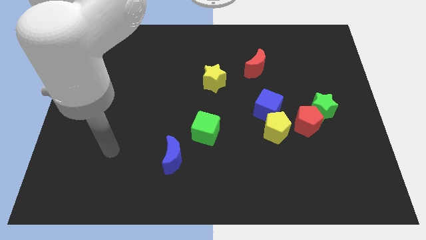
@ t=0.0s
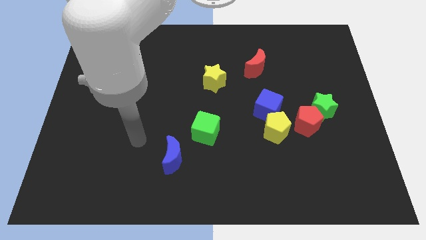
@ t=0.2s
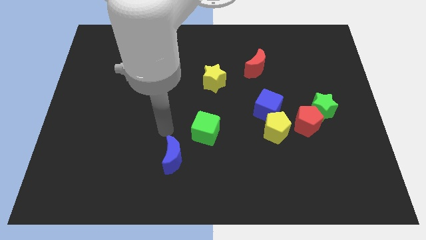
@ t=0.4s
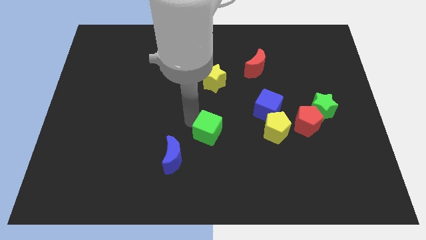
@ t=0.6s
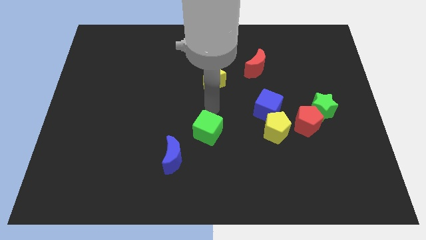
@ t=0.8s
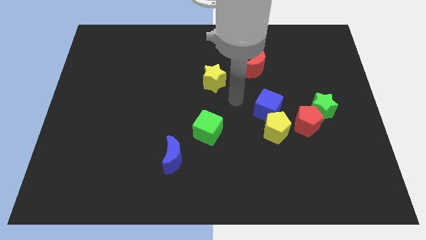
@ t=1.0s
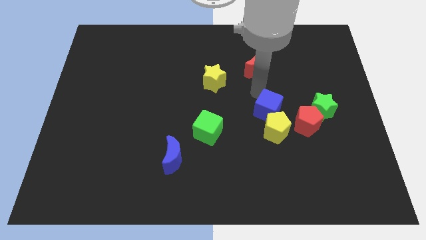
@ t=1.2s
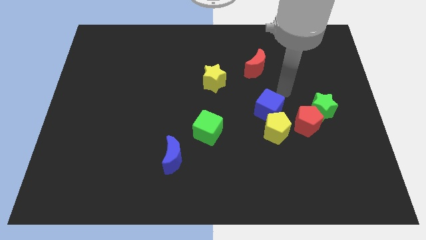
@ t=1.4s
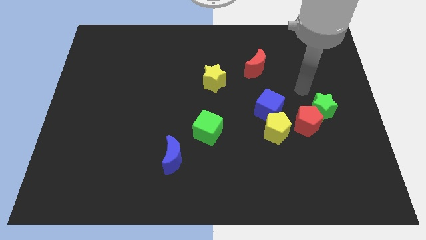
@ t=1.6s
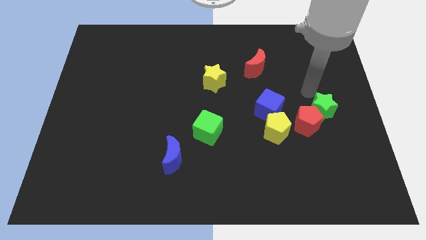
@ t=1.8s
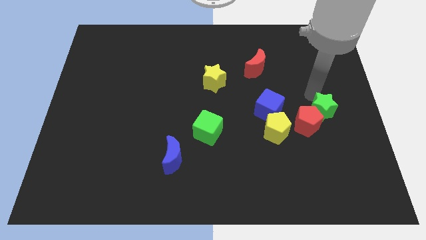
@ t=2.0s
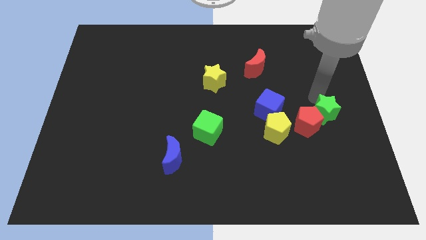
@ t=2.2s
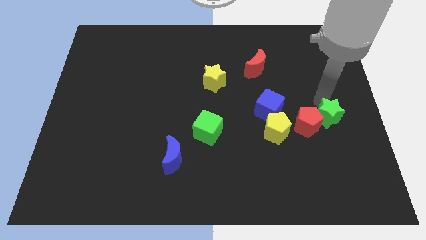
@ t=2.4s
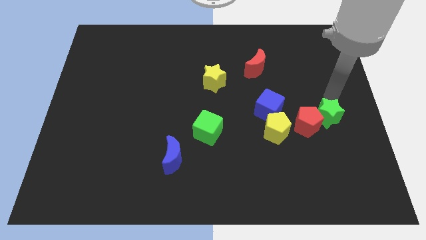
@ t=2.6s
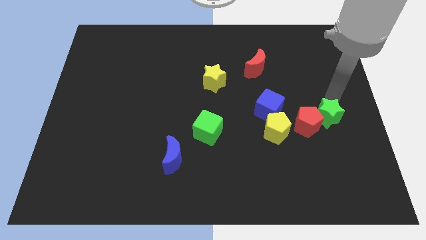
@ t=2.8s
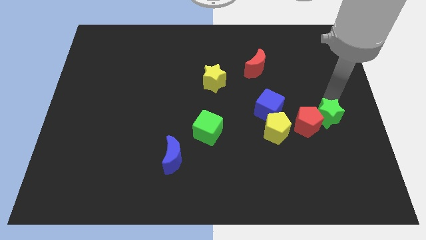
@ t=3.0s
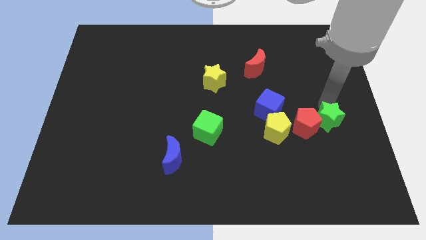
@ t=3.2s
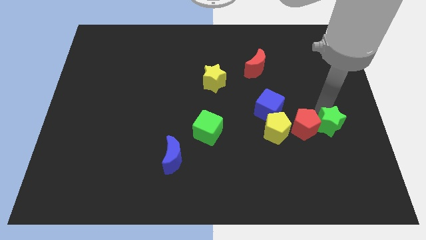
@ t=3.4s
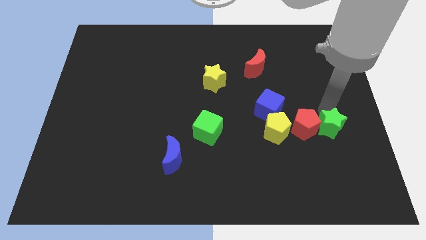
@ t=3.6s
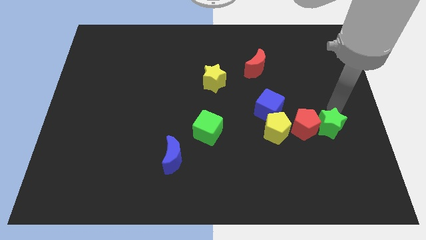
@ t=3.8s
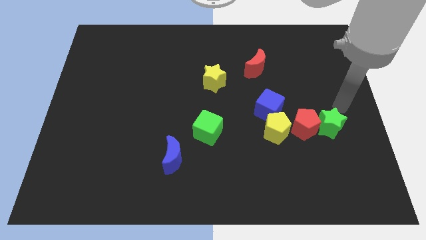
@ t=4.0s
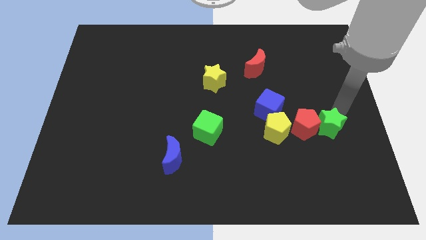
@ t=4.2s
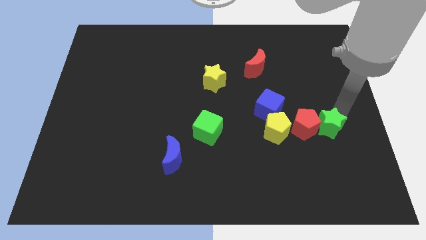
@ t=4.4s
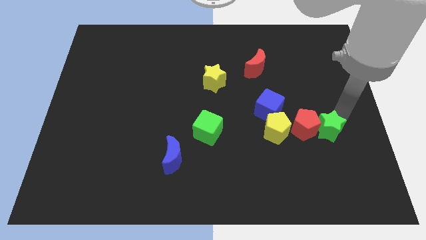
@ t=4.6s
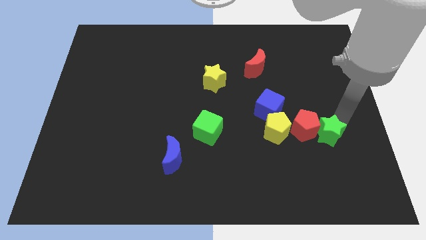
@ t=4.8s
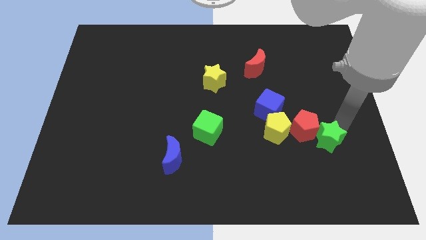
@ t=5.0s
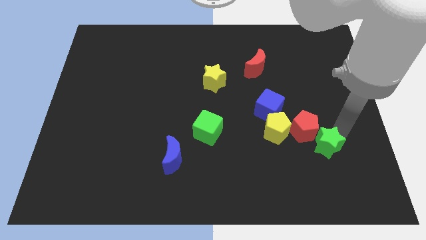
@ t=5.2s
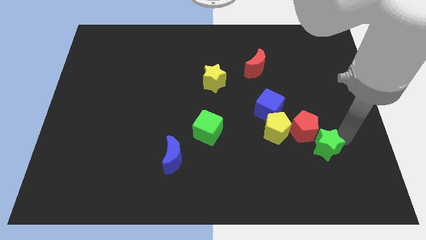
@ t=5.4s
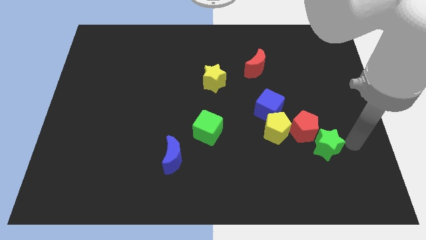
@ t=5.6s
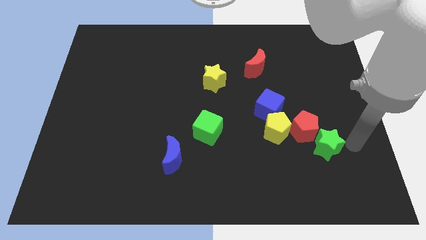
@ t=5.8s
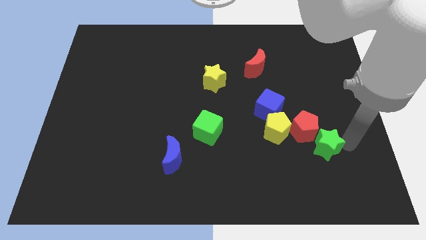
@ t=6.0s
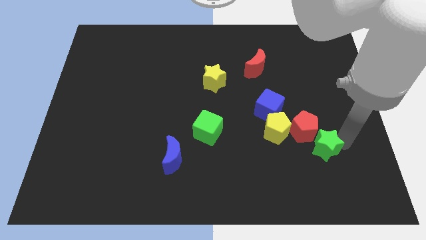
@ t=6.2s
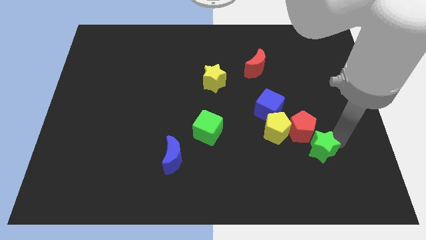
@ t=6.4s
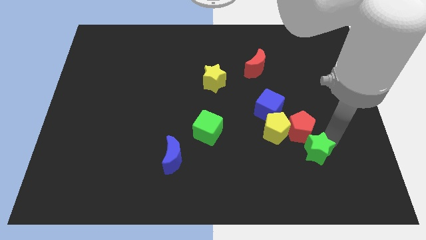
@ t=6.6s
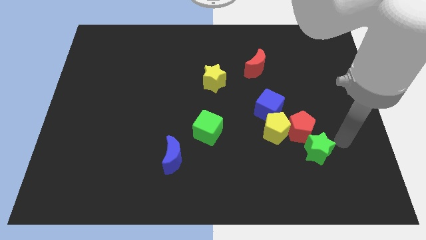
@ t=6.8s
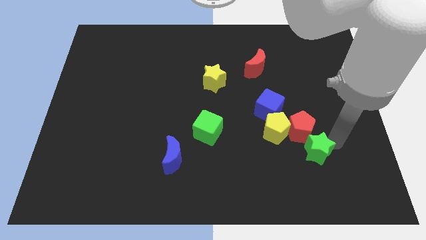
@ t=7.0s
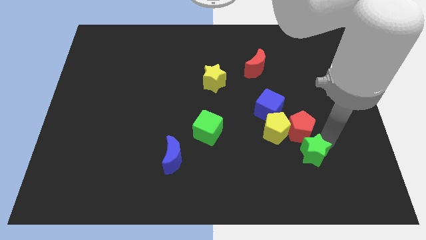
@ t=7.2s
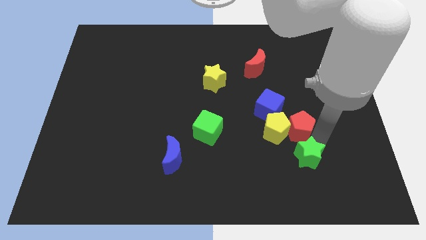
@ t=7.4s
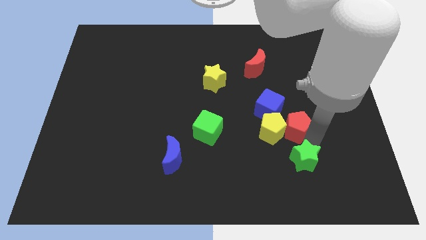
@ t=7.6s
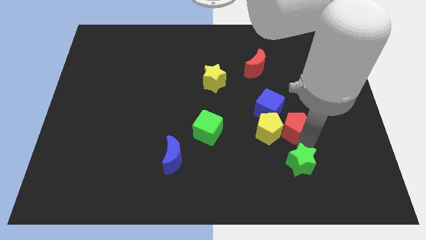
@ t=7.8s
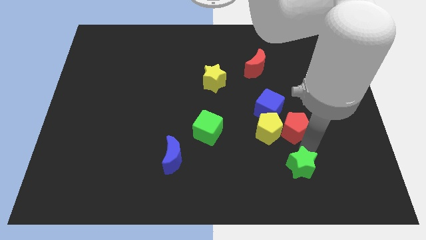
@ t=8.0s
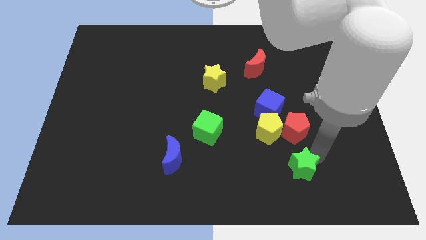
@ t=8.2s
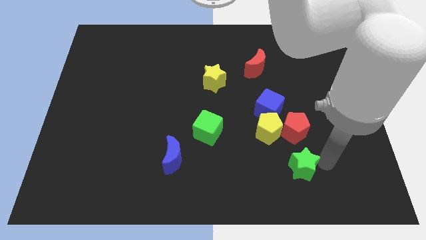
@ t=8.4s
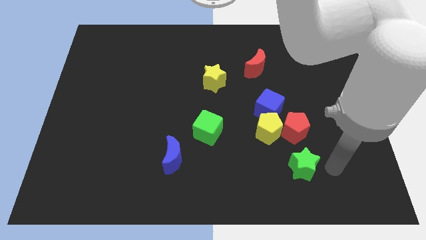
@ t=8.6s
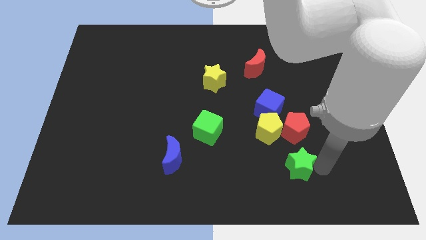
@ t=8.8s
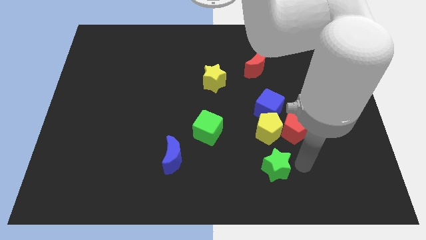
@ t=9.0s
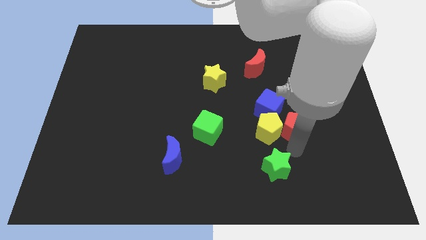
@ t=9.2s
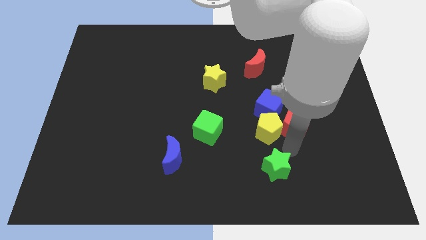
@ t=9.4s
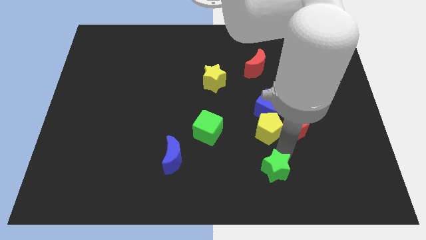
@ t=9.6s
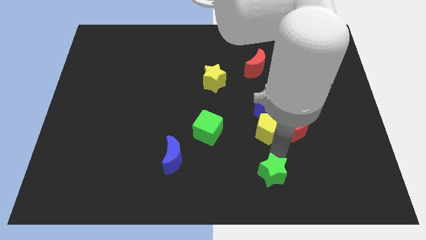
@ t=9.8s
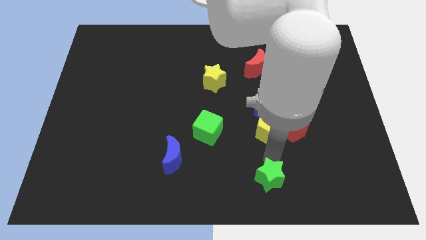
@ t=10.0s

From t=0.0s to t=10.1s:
move the green star to the bottom

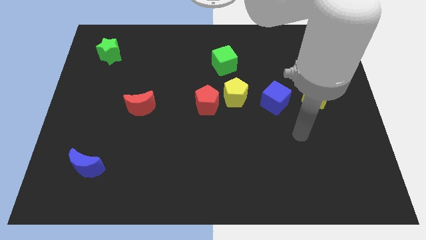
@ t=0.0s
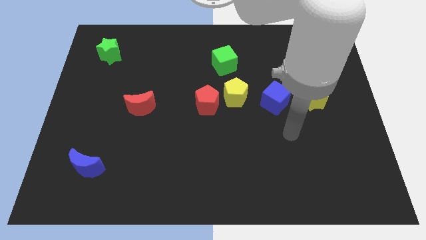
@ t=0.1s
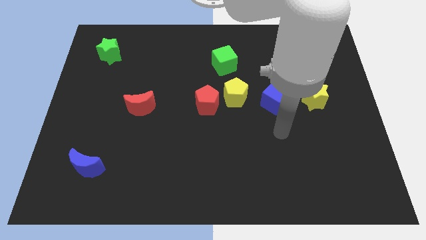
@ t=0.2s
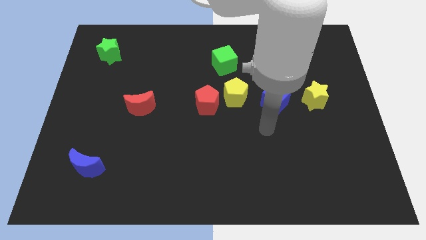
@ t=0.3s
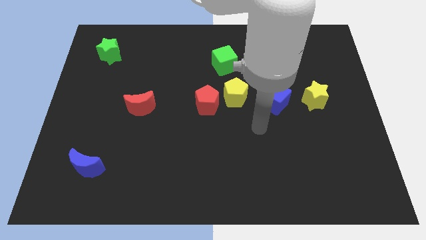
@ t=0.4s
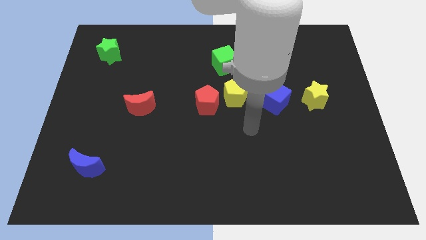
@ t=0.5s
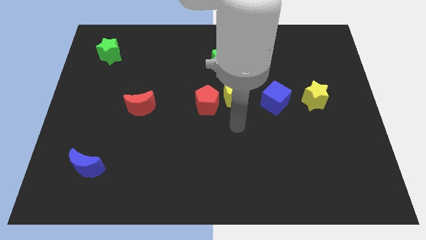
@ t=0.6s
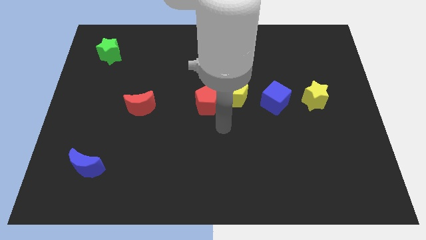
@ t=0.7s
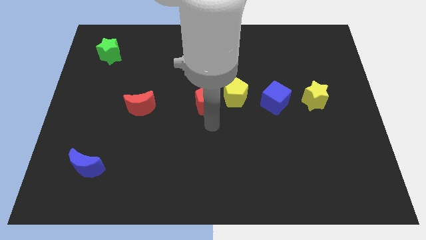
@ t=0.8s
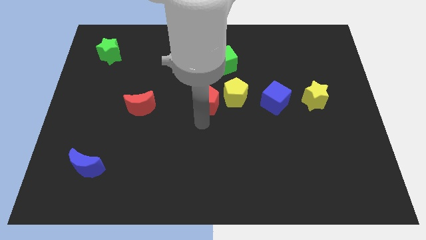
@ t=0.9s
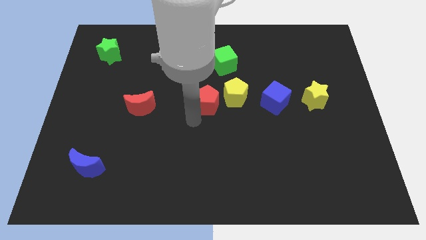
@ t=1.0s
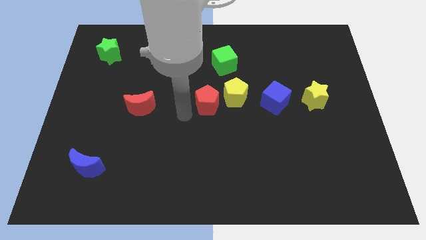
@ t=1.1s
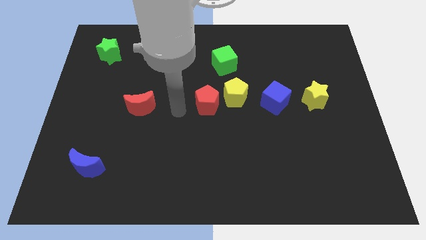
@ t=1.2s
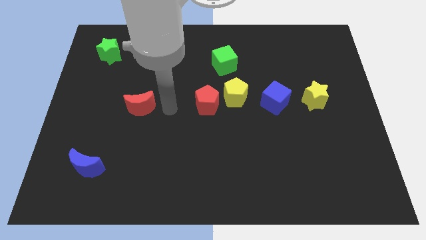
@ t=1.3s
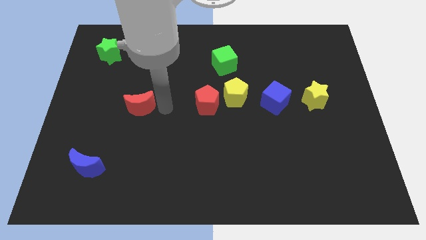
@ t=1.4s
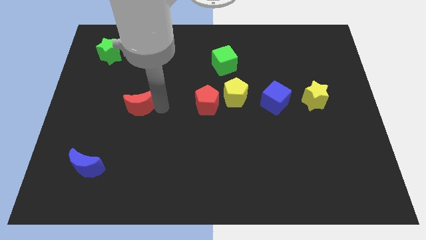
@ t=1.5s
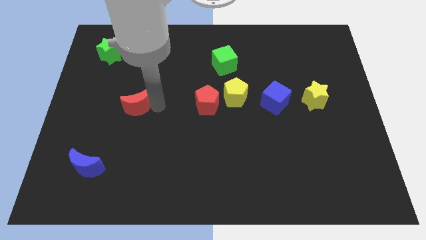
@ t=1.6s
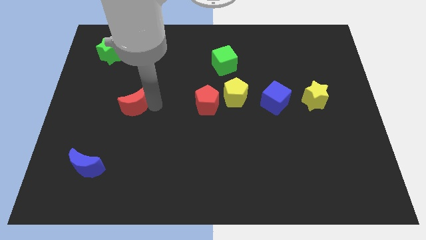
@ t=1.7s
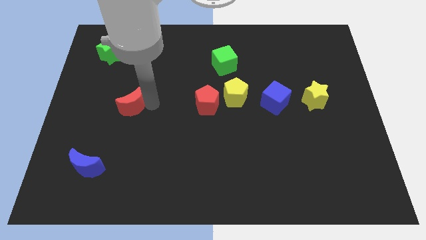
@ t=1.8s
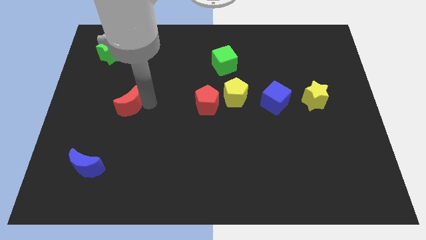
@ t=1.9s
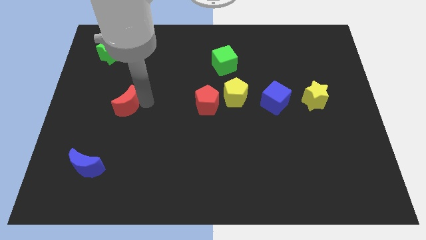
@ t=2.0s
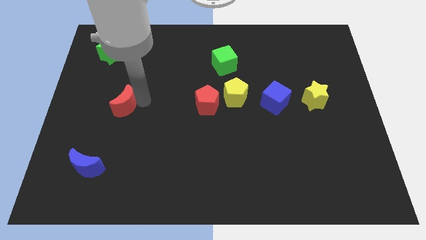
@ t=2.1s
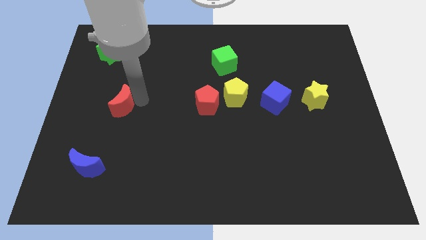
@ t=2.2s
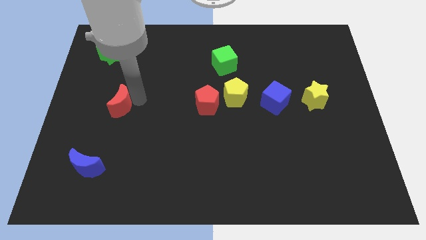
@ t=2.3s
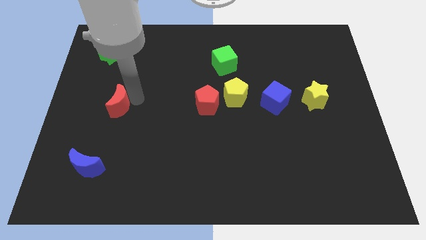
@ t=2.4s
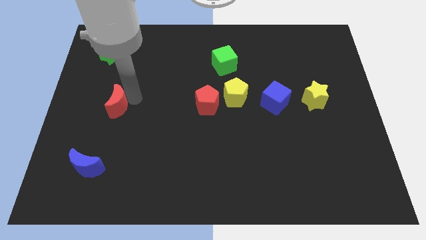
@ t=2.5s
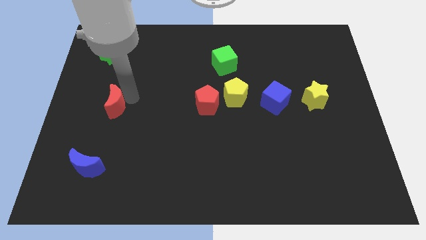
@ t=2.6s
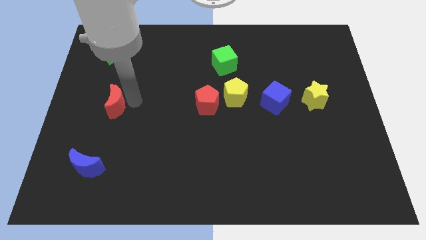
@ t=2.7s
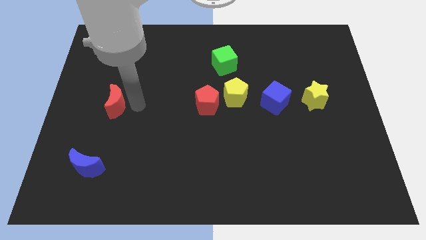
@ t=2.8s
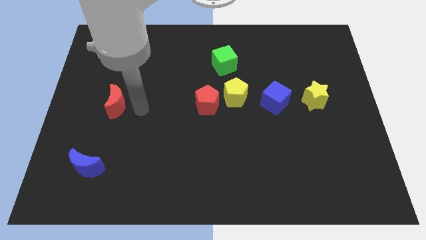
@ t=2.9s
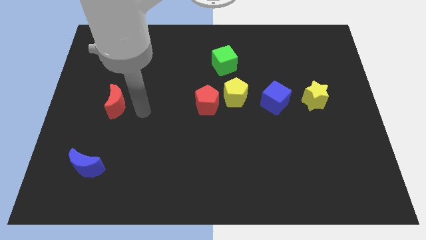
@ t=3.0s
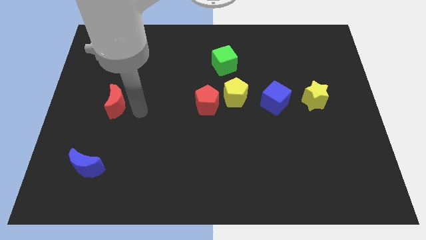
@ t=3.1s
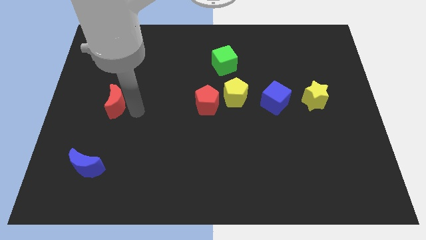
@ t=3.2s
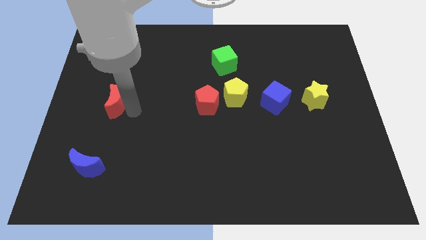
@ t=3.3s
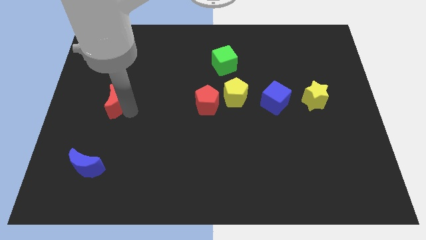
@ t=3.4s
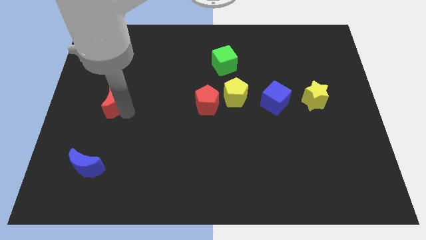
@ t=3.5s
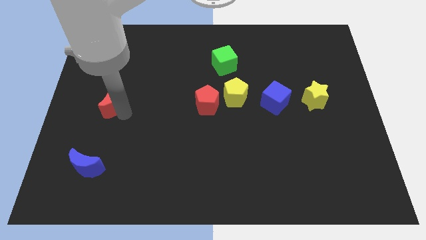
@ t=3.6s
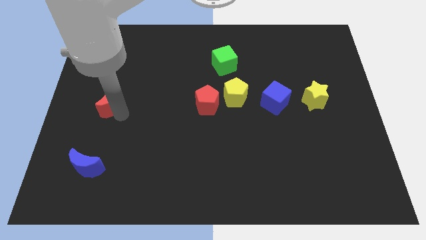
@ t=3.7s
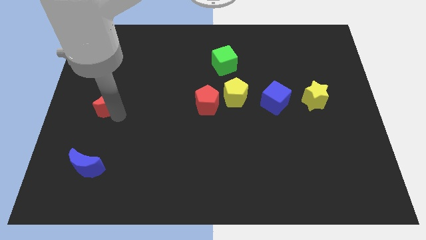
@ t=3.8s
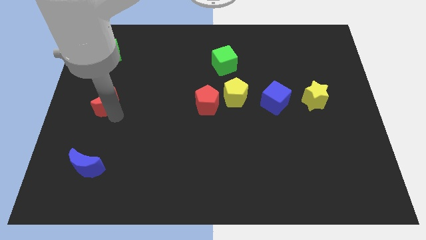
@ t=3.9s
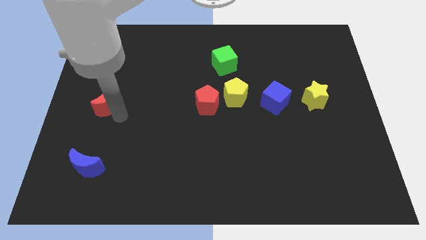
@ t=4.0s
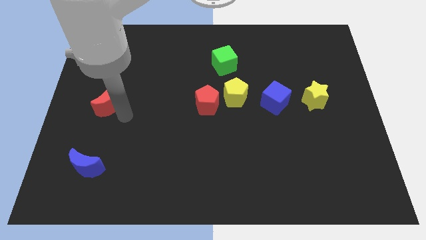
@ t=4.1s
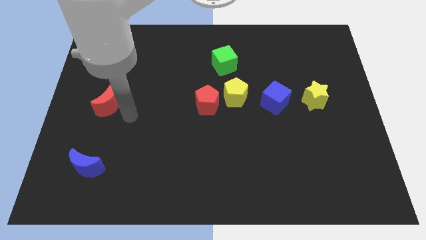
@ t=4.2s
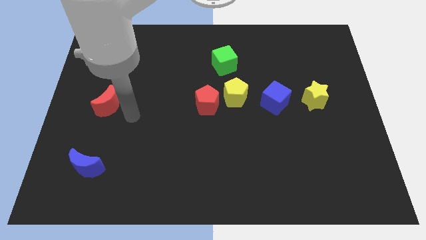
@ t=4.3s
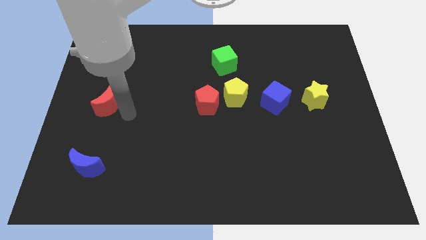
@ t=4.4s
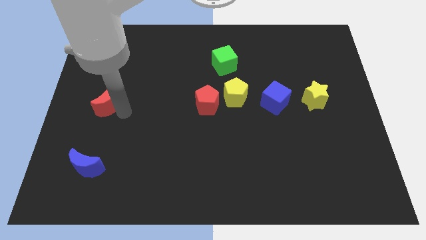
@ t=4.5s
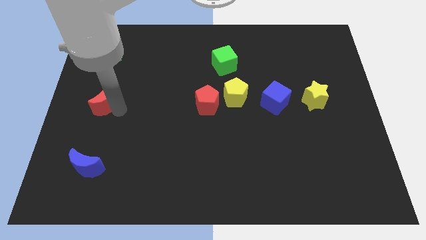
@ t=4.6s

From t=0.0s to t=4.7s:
push the red moon to the left side of the board
